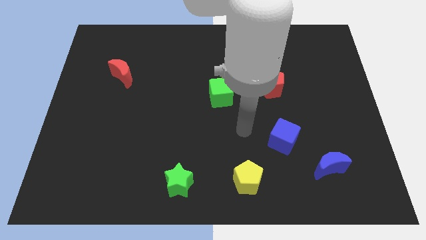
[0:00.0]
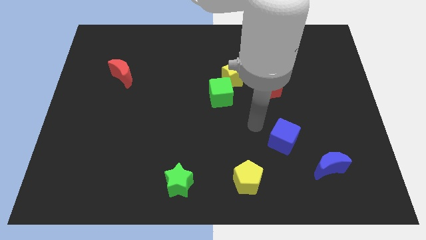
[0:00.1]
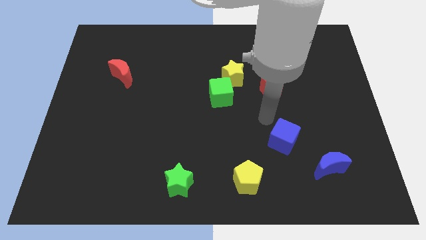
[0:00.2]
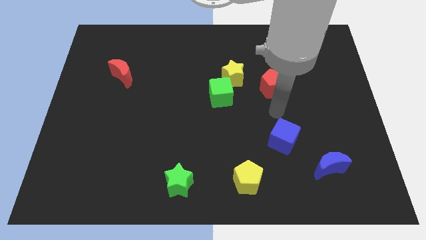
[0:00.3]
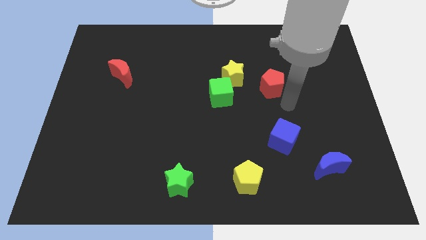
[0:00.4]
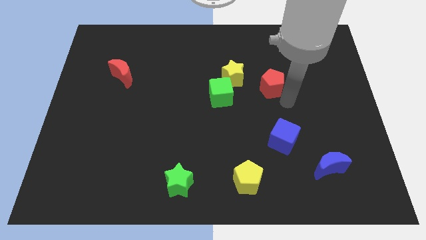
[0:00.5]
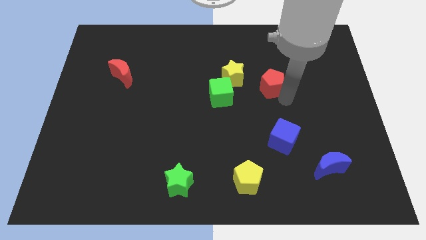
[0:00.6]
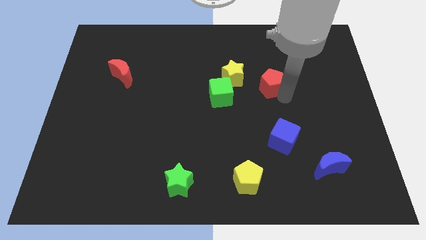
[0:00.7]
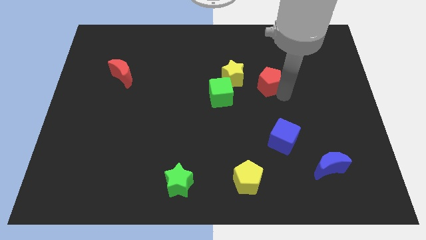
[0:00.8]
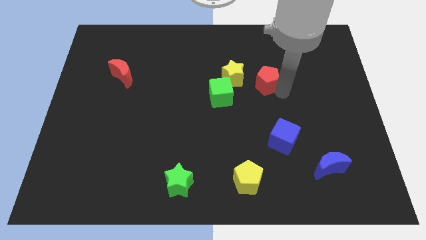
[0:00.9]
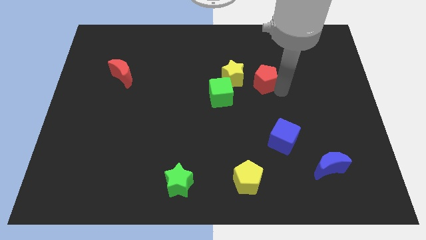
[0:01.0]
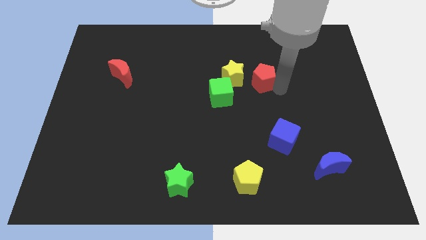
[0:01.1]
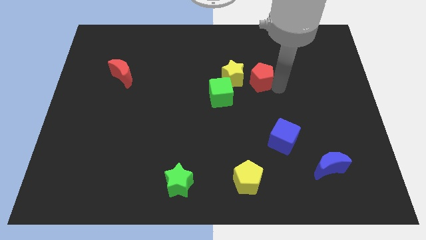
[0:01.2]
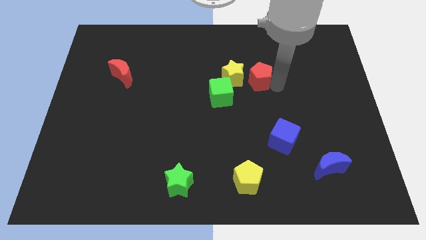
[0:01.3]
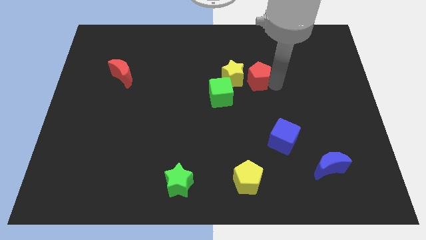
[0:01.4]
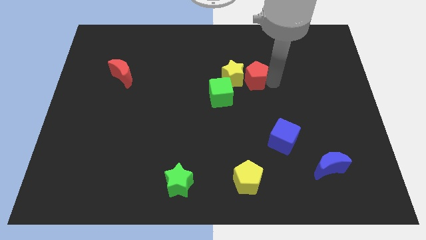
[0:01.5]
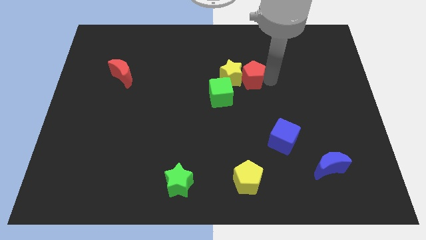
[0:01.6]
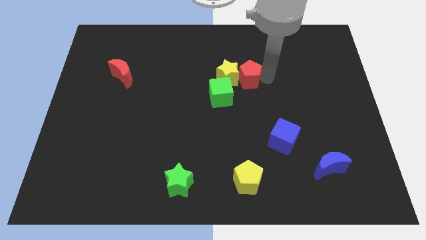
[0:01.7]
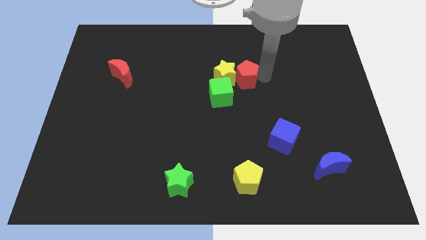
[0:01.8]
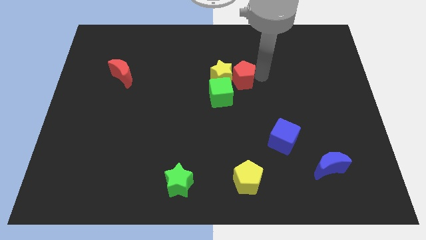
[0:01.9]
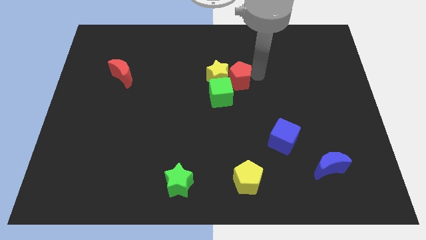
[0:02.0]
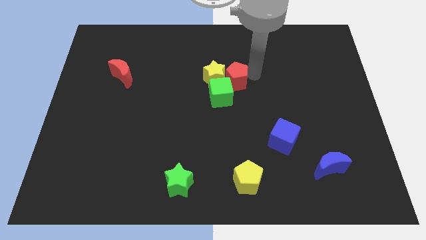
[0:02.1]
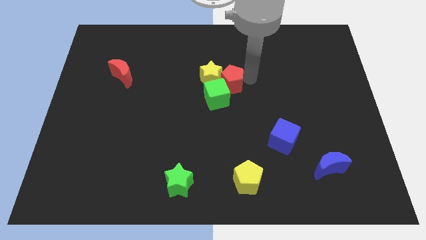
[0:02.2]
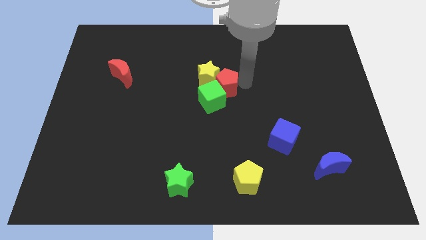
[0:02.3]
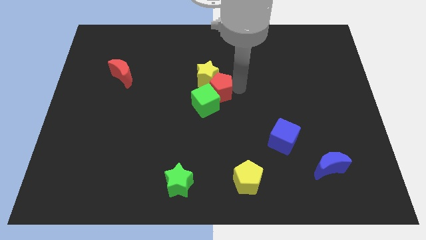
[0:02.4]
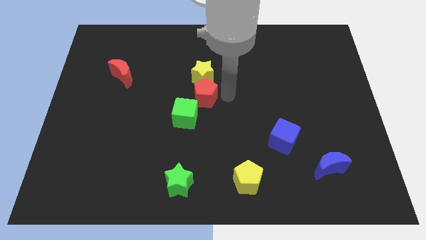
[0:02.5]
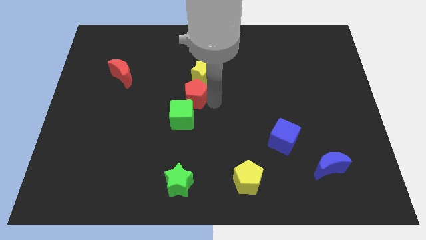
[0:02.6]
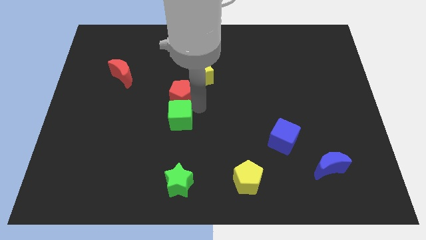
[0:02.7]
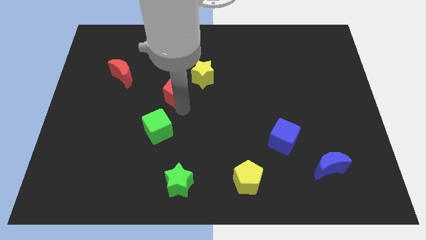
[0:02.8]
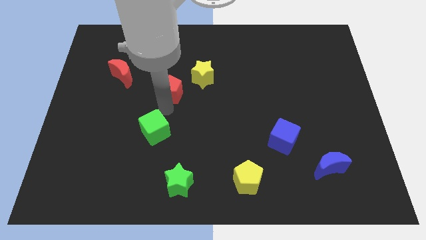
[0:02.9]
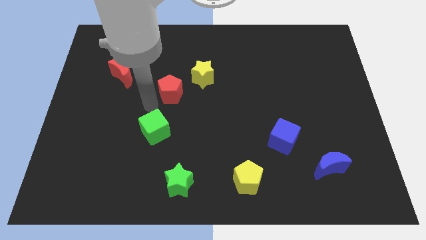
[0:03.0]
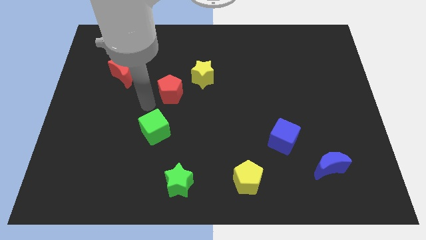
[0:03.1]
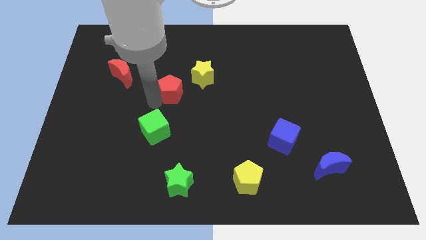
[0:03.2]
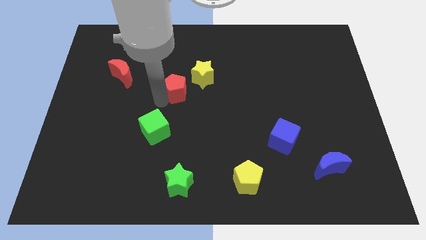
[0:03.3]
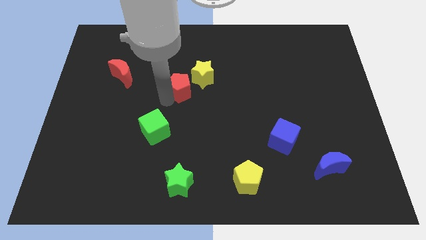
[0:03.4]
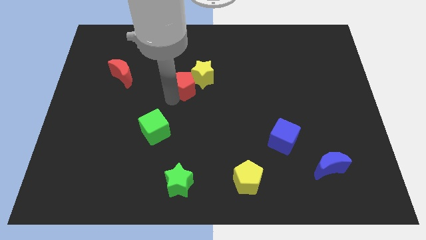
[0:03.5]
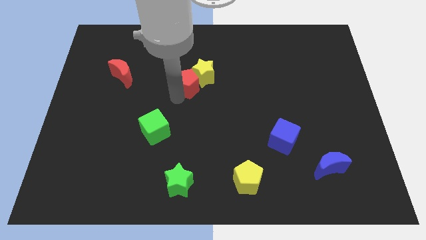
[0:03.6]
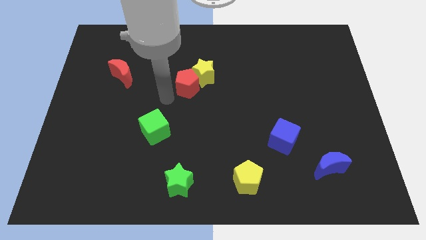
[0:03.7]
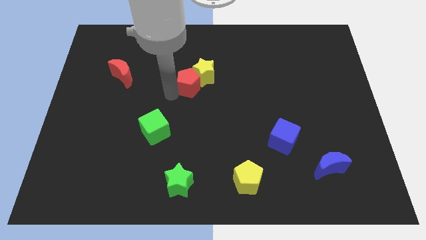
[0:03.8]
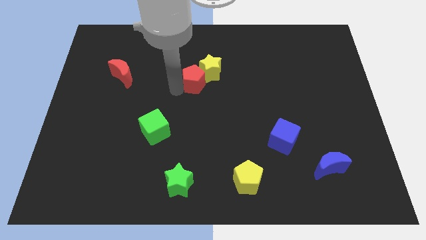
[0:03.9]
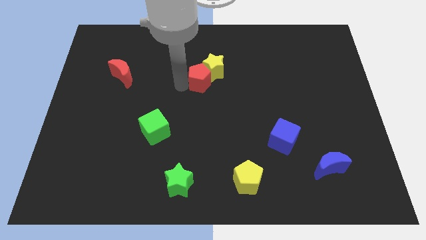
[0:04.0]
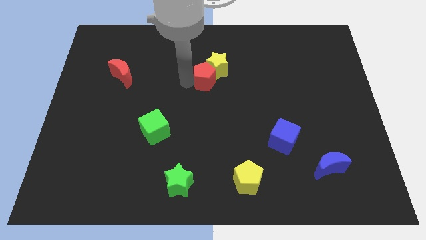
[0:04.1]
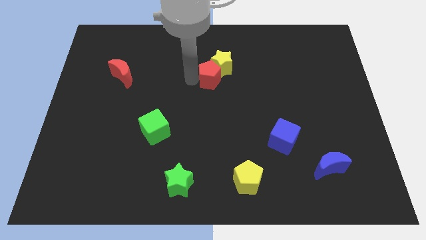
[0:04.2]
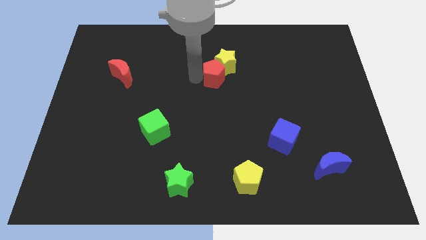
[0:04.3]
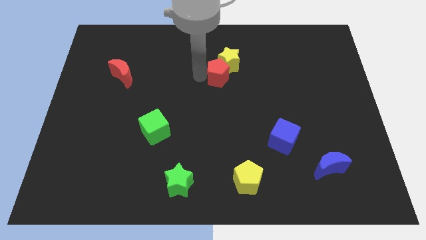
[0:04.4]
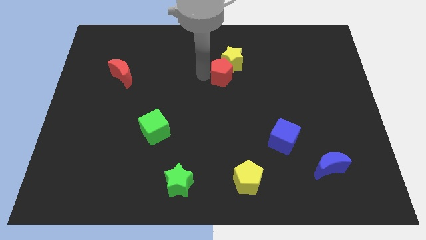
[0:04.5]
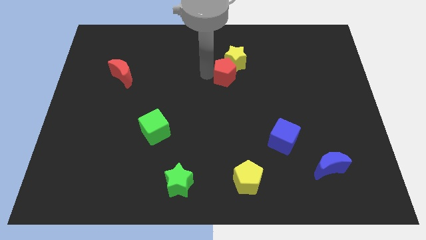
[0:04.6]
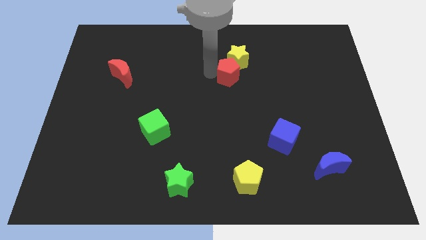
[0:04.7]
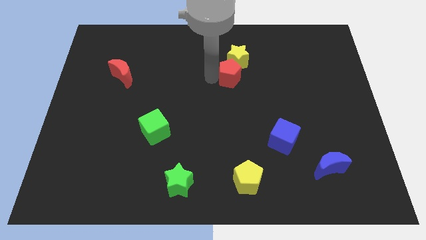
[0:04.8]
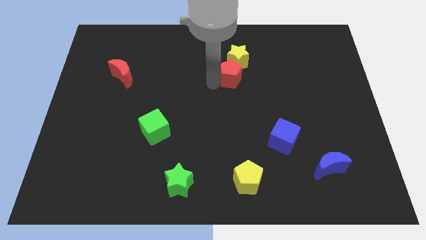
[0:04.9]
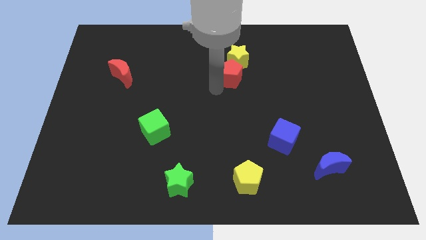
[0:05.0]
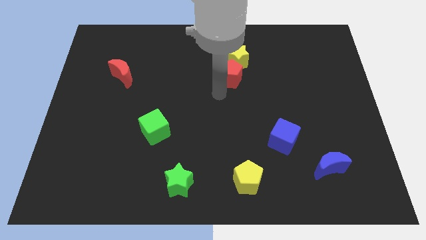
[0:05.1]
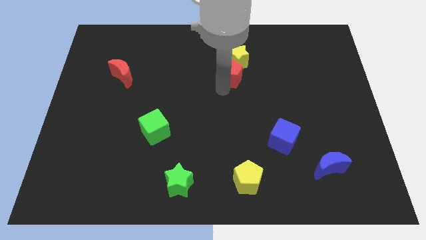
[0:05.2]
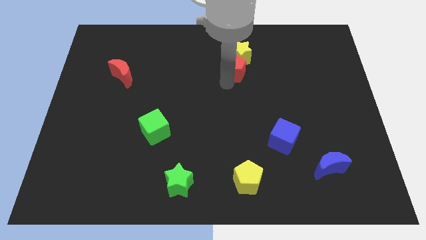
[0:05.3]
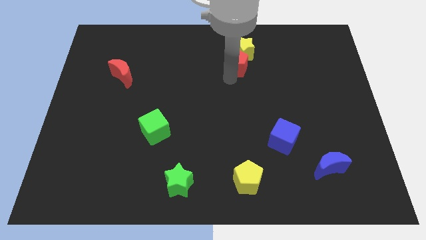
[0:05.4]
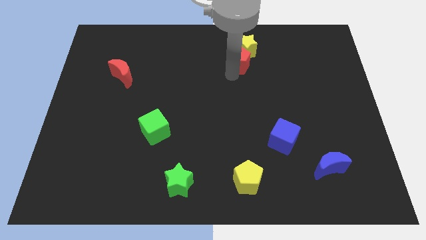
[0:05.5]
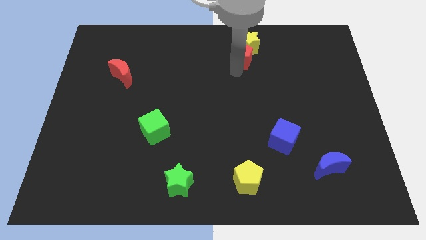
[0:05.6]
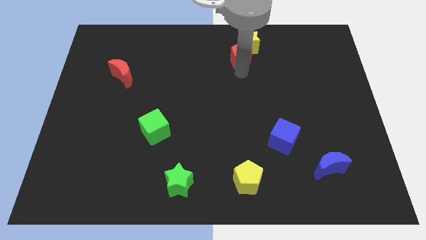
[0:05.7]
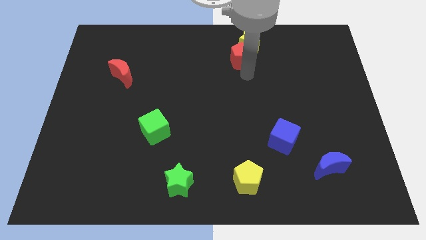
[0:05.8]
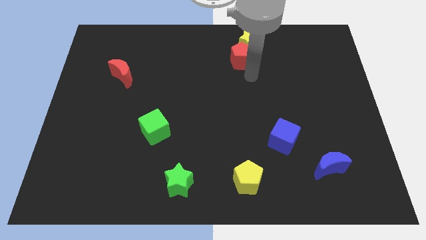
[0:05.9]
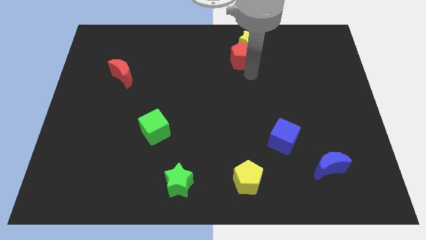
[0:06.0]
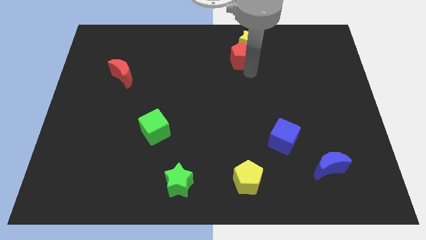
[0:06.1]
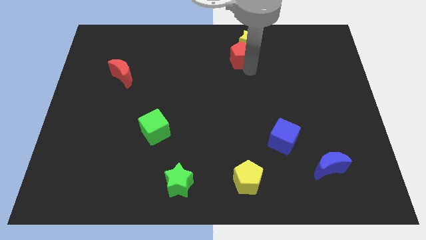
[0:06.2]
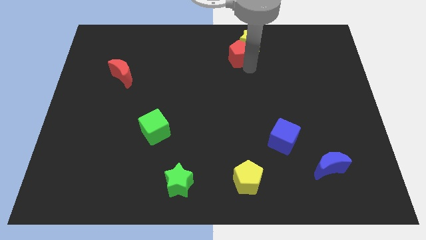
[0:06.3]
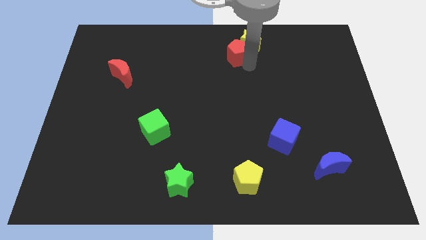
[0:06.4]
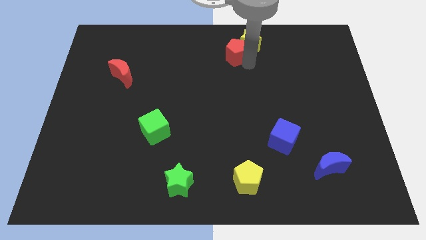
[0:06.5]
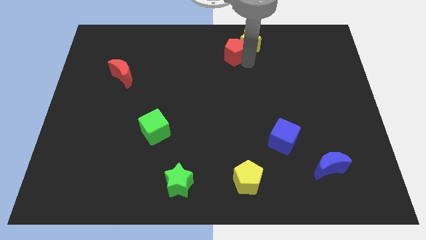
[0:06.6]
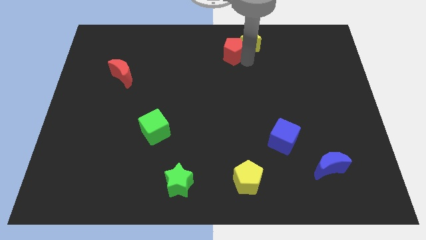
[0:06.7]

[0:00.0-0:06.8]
move the red pentagon to the top side
